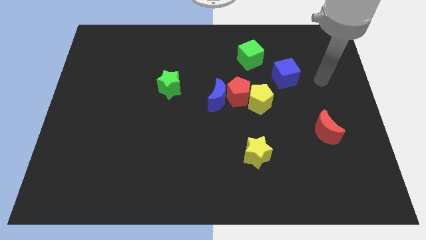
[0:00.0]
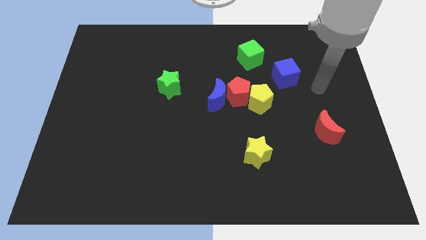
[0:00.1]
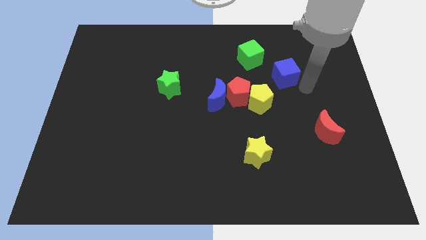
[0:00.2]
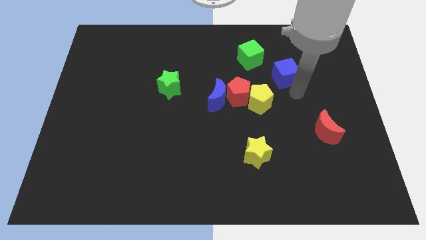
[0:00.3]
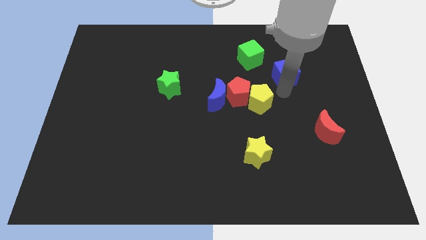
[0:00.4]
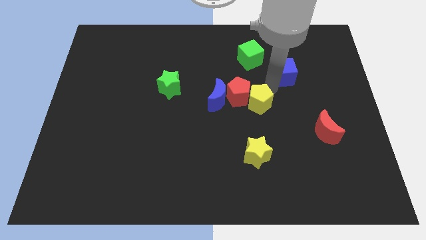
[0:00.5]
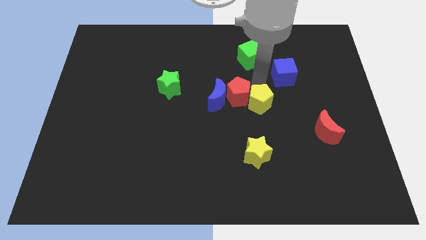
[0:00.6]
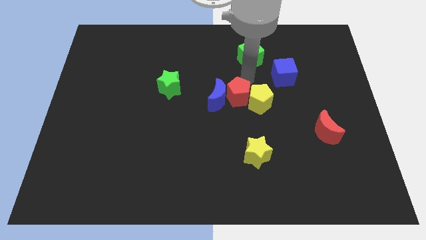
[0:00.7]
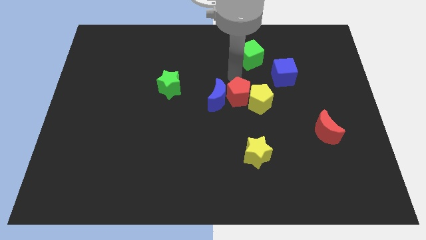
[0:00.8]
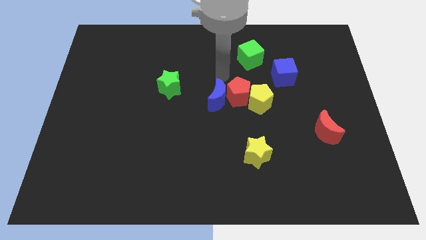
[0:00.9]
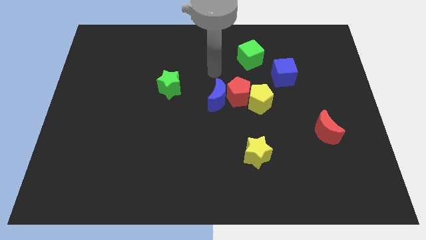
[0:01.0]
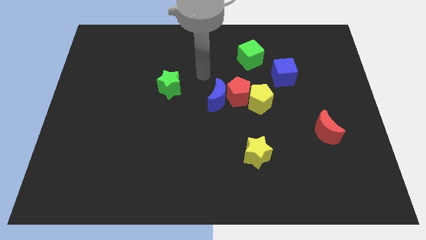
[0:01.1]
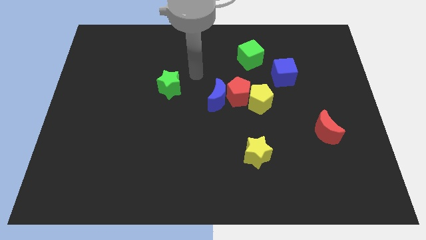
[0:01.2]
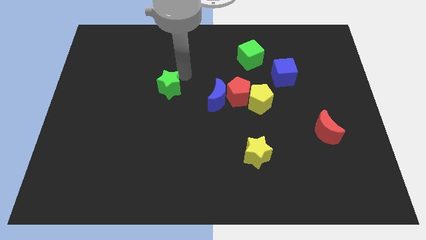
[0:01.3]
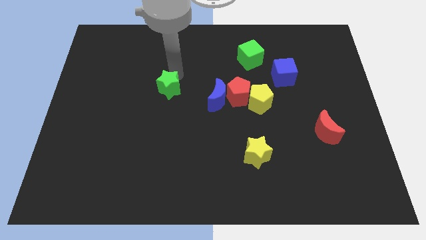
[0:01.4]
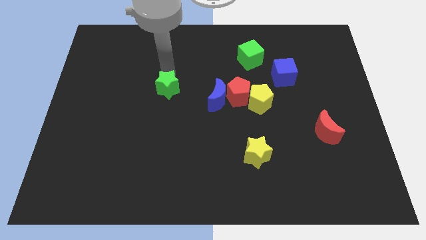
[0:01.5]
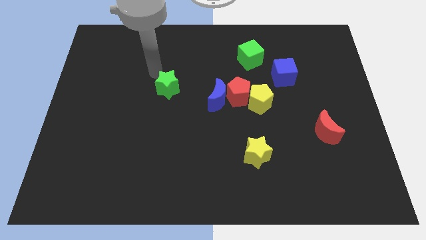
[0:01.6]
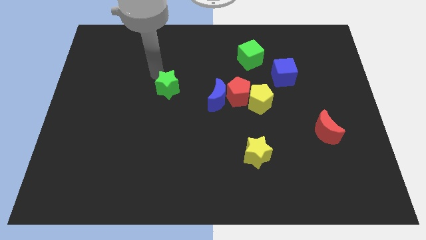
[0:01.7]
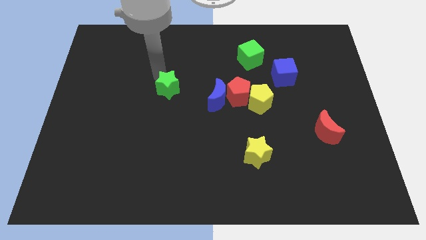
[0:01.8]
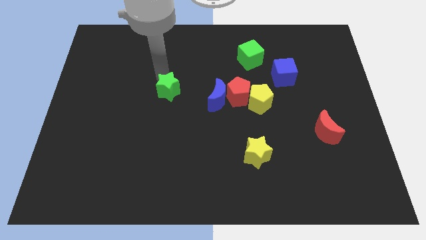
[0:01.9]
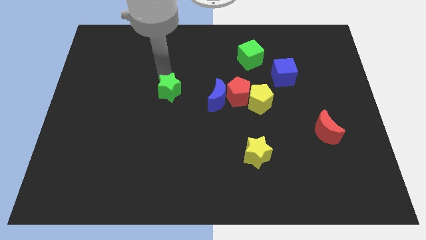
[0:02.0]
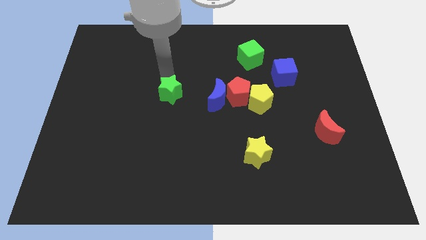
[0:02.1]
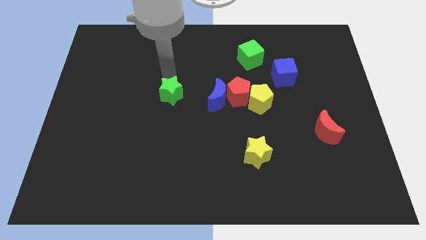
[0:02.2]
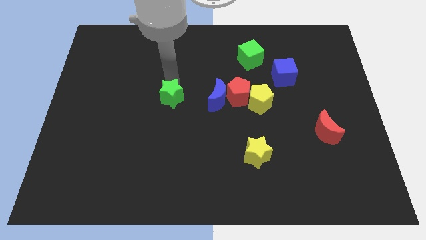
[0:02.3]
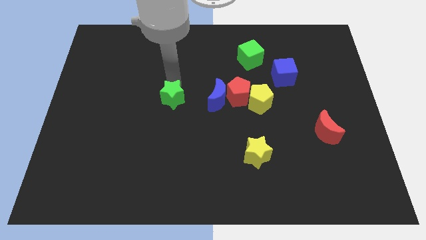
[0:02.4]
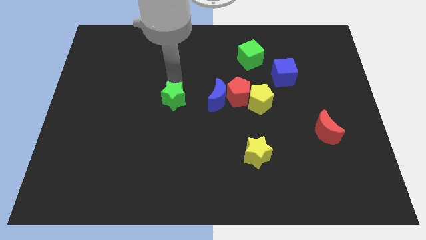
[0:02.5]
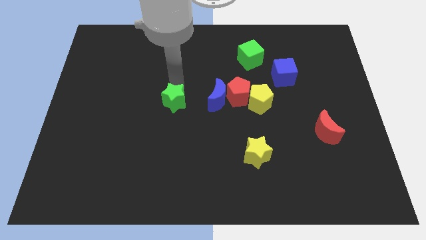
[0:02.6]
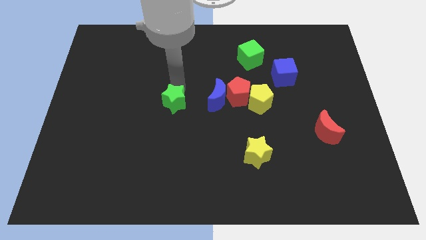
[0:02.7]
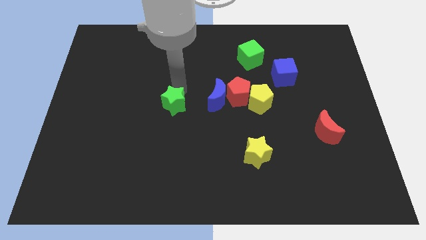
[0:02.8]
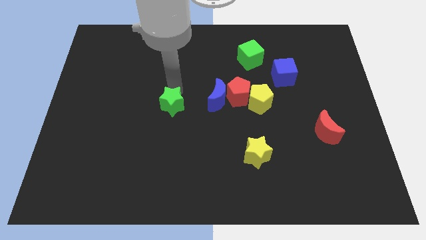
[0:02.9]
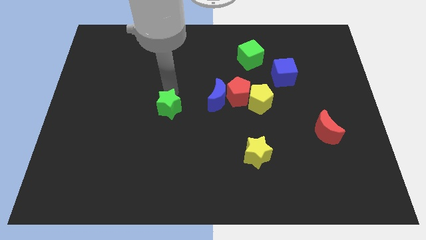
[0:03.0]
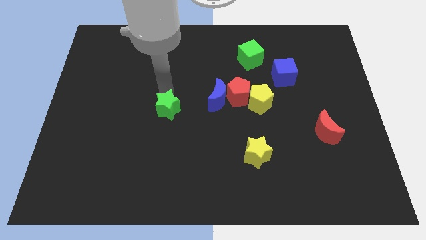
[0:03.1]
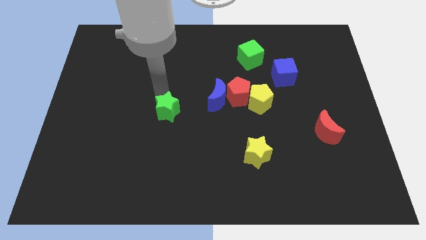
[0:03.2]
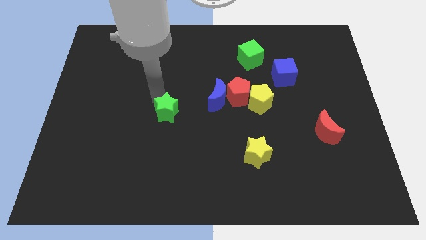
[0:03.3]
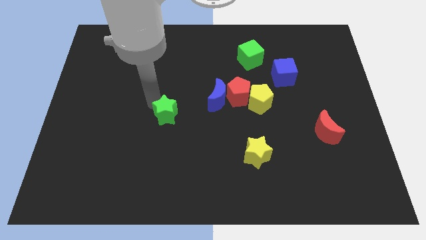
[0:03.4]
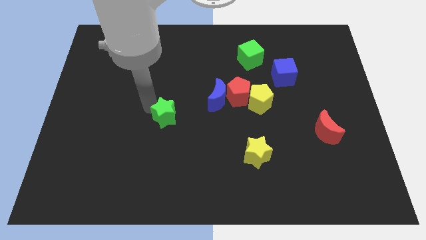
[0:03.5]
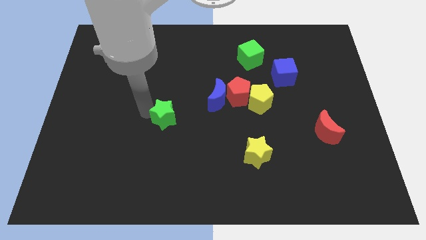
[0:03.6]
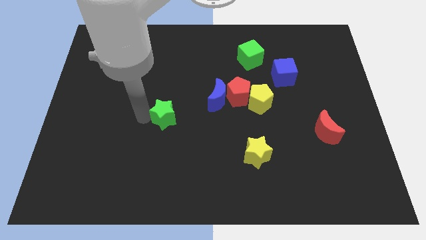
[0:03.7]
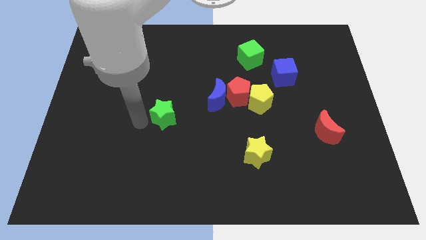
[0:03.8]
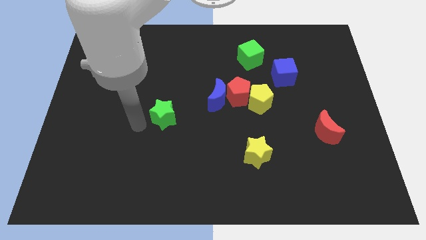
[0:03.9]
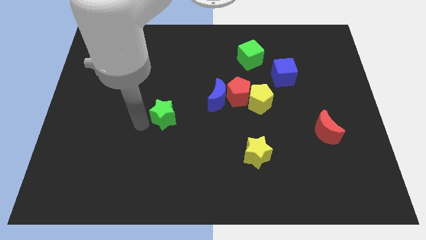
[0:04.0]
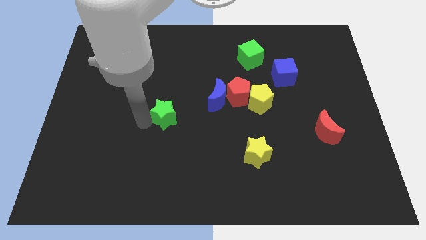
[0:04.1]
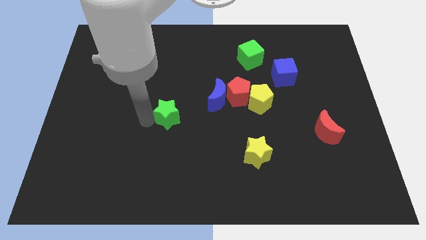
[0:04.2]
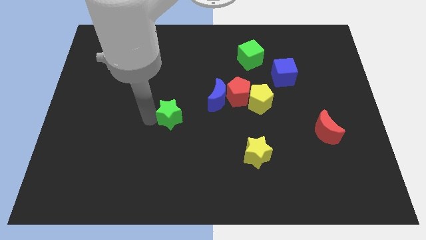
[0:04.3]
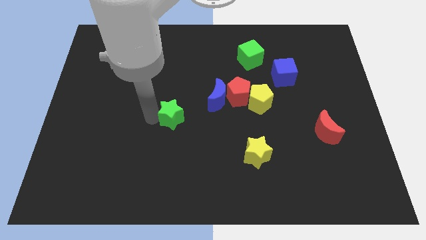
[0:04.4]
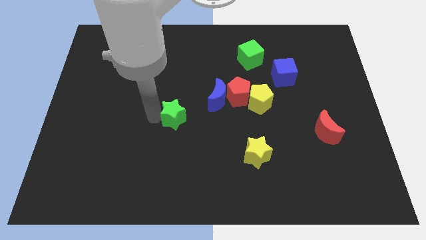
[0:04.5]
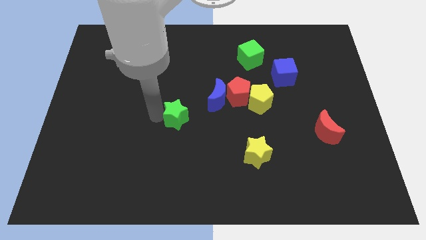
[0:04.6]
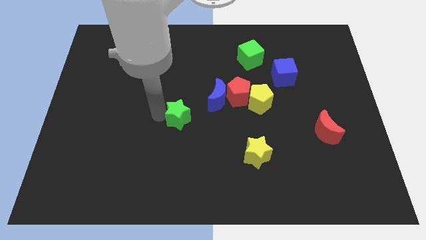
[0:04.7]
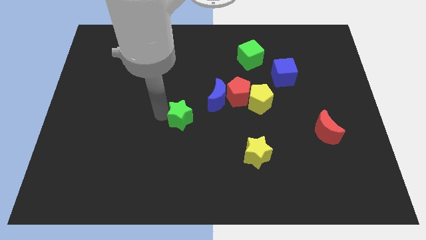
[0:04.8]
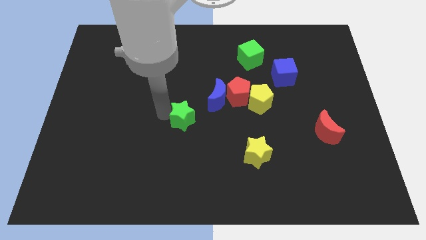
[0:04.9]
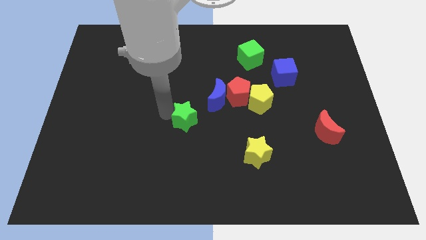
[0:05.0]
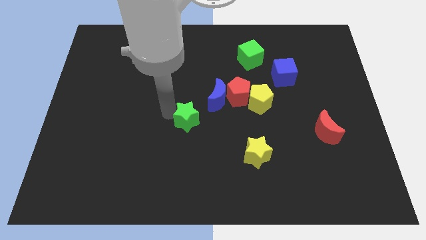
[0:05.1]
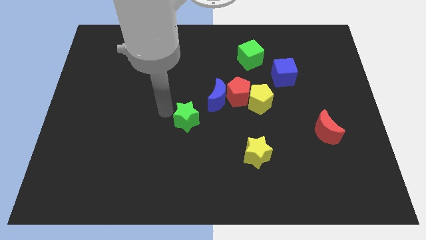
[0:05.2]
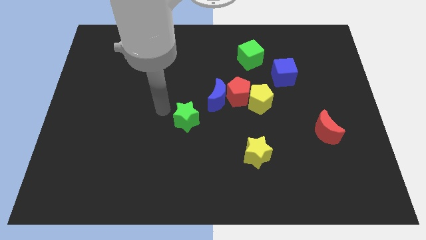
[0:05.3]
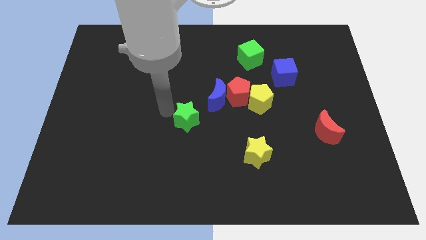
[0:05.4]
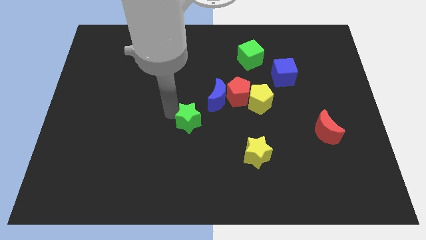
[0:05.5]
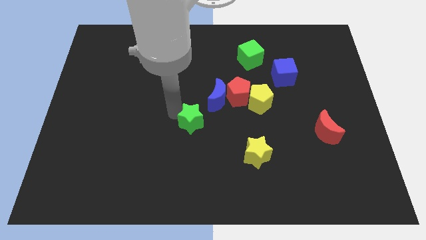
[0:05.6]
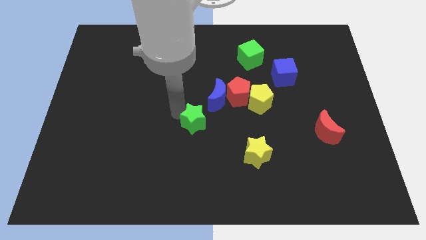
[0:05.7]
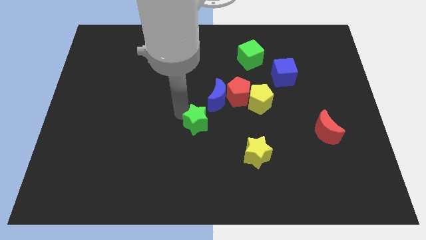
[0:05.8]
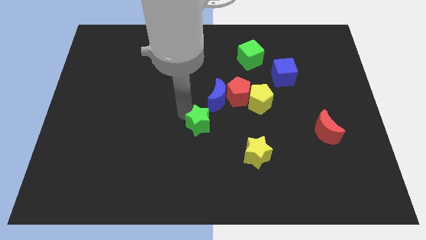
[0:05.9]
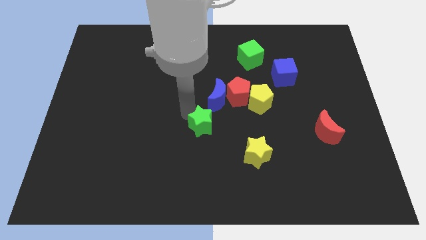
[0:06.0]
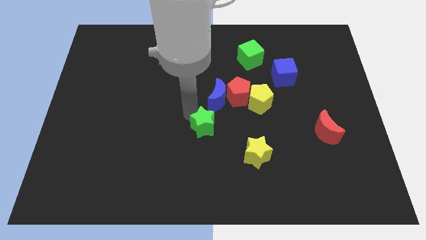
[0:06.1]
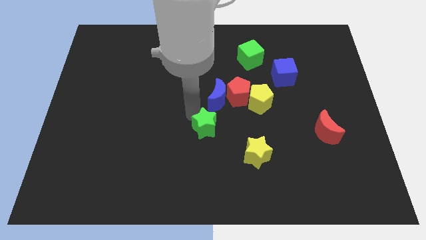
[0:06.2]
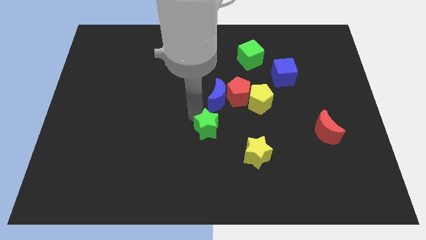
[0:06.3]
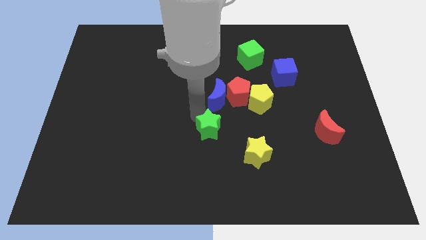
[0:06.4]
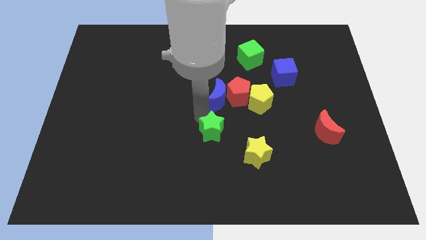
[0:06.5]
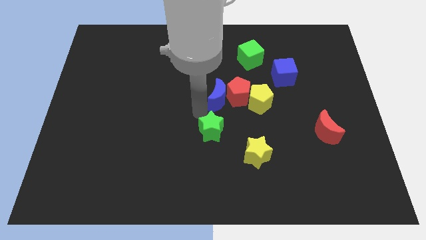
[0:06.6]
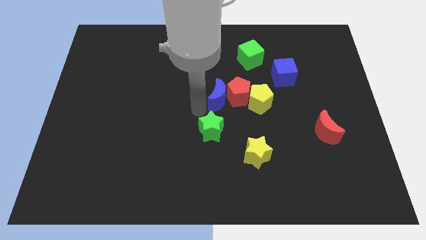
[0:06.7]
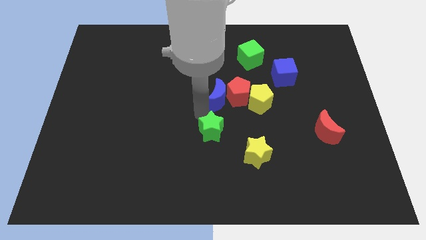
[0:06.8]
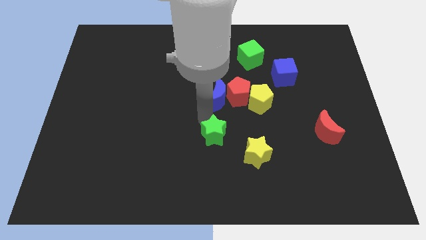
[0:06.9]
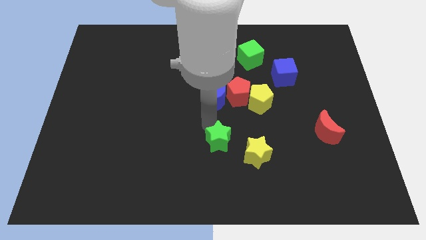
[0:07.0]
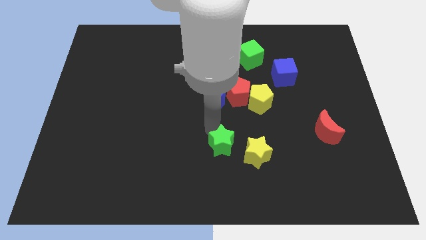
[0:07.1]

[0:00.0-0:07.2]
slide the green star downwards and right diagonally

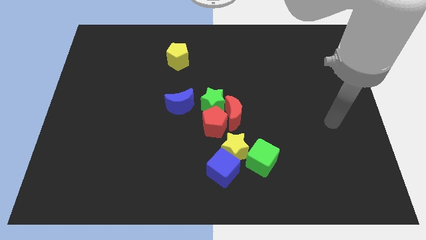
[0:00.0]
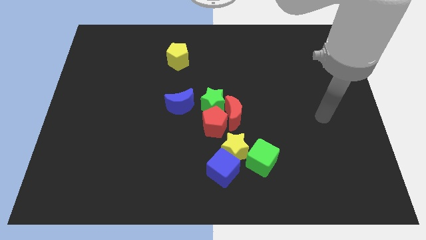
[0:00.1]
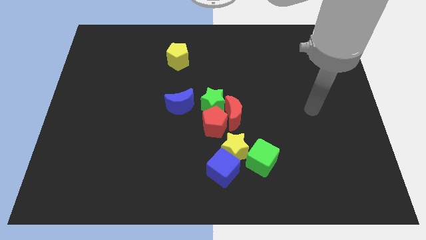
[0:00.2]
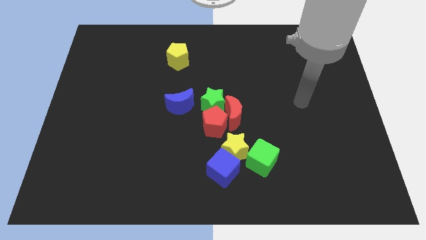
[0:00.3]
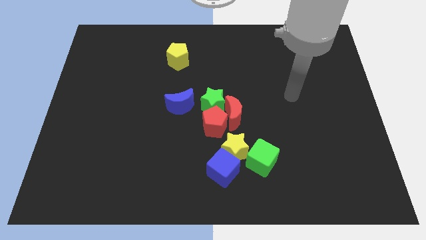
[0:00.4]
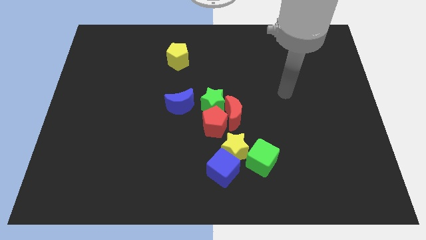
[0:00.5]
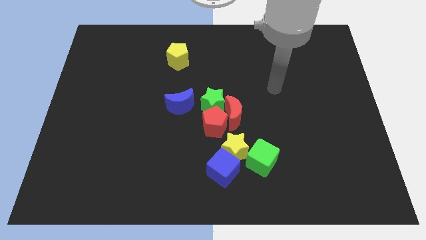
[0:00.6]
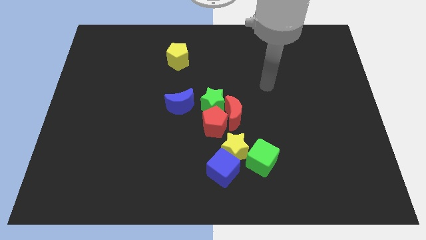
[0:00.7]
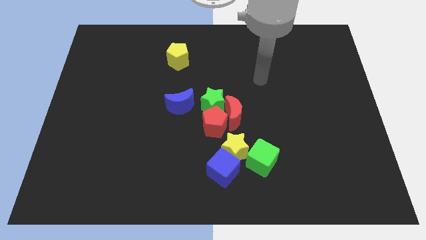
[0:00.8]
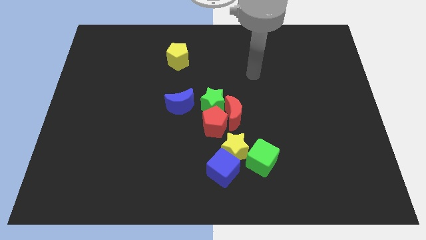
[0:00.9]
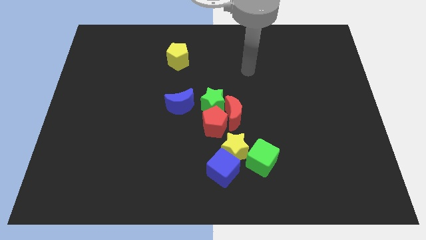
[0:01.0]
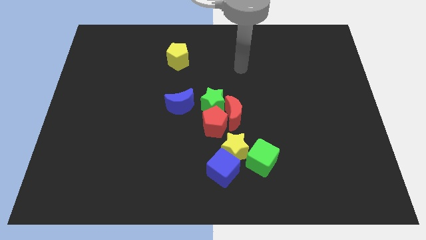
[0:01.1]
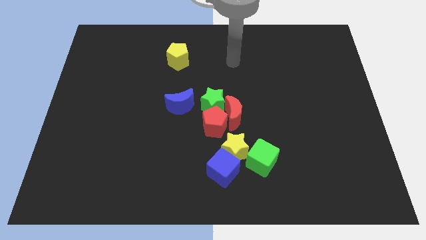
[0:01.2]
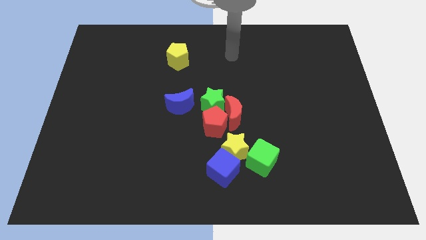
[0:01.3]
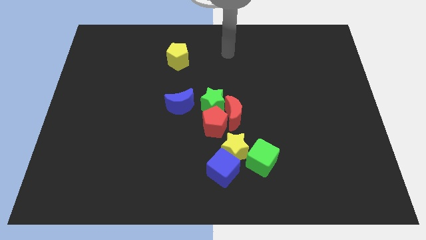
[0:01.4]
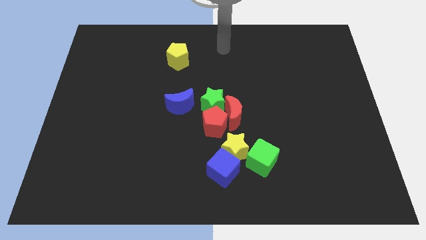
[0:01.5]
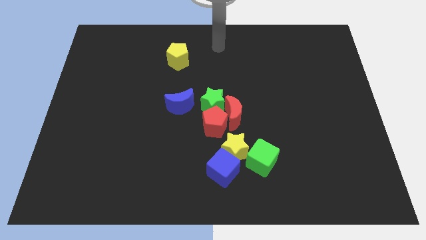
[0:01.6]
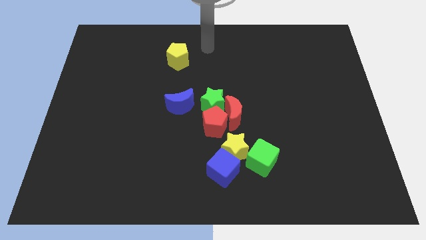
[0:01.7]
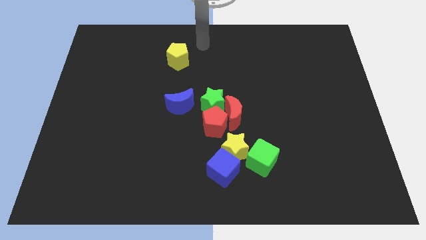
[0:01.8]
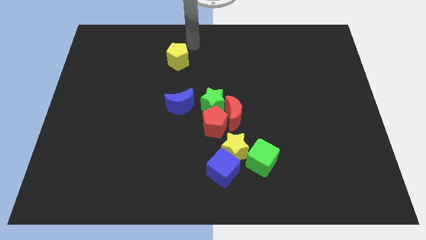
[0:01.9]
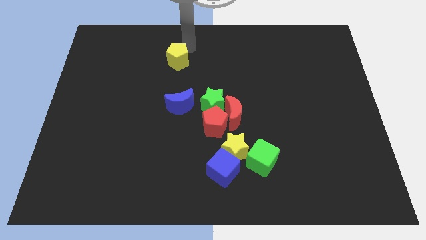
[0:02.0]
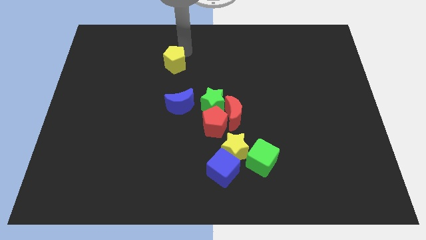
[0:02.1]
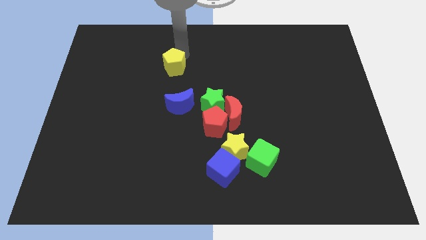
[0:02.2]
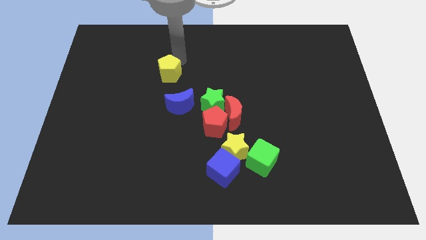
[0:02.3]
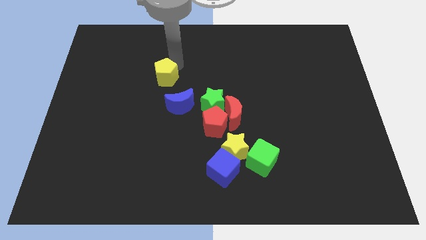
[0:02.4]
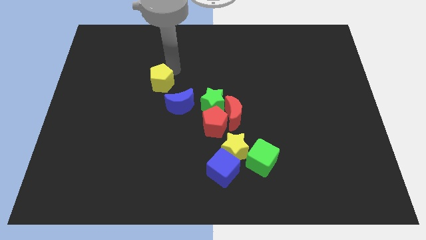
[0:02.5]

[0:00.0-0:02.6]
slightly push the yellow pentagon diagonally downwards and to the left
